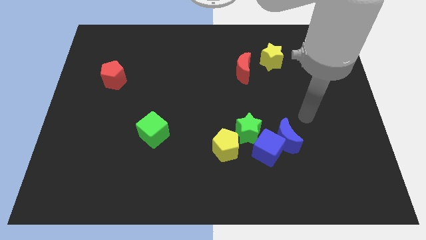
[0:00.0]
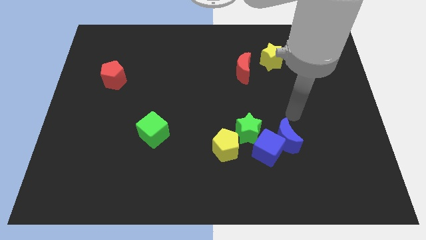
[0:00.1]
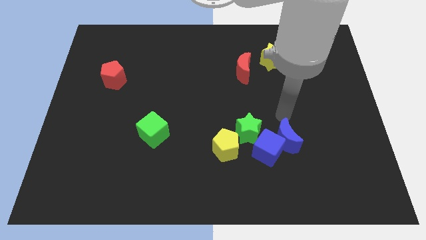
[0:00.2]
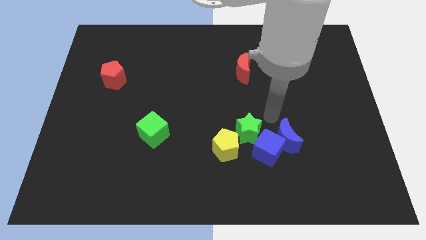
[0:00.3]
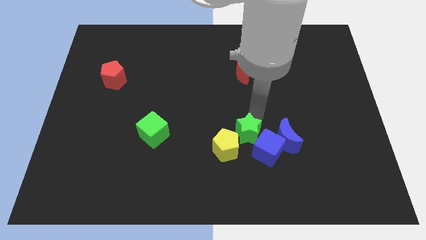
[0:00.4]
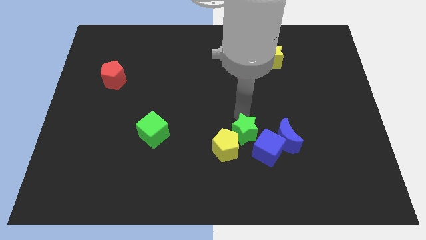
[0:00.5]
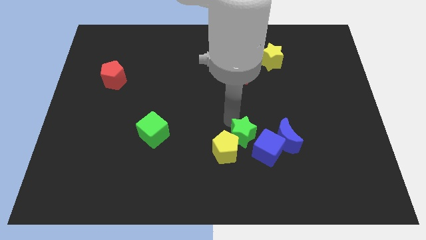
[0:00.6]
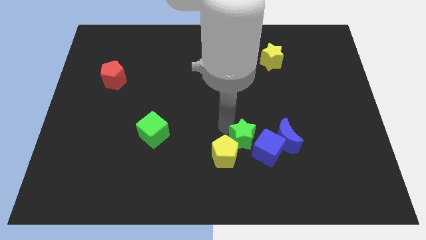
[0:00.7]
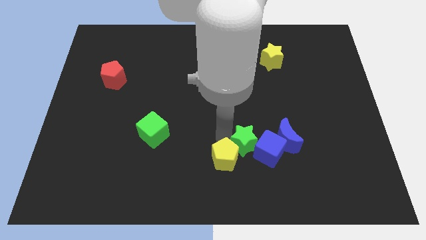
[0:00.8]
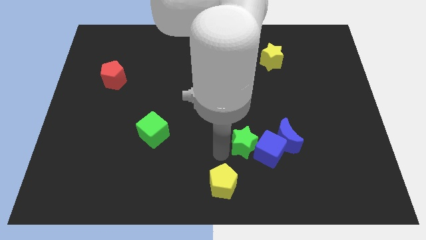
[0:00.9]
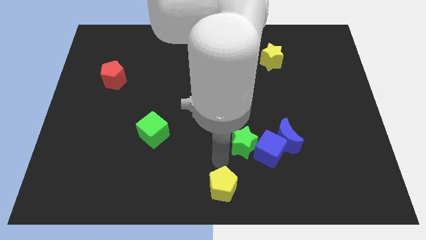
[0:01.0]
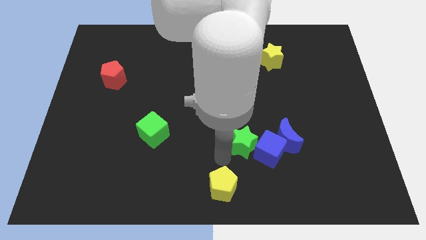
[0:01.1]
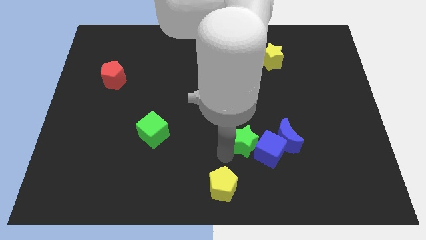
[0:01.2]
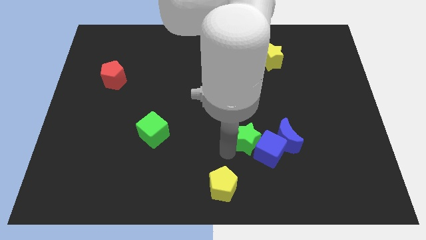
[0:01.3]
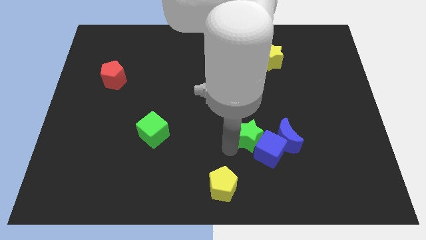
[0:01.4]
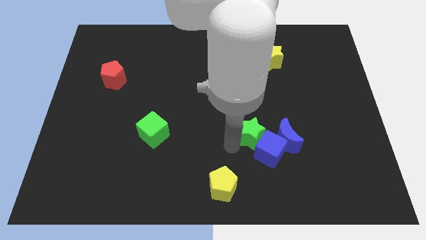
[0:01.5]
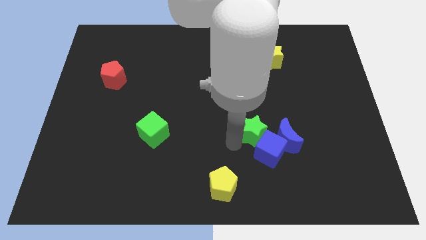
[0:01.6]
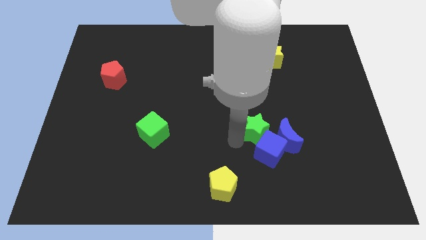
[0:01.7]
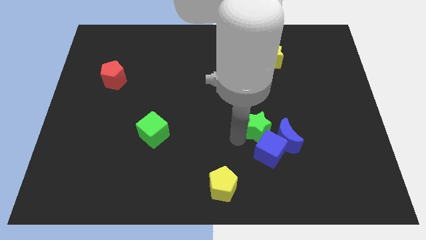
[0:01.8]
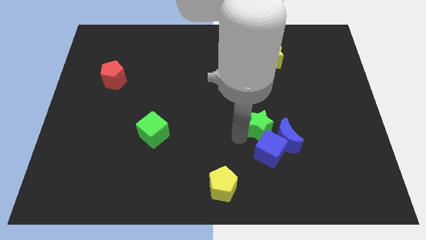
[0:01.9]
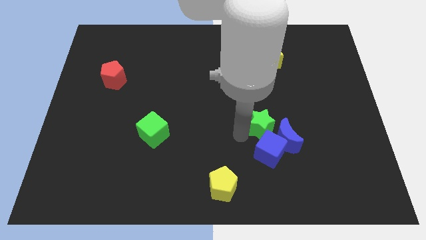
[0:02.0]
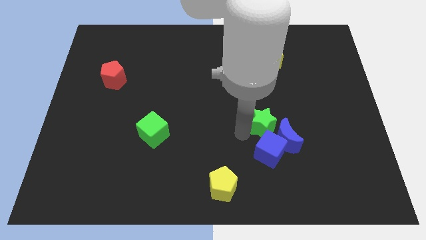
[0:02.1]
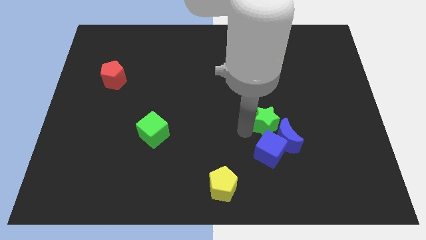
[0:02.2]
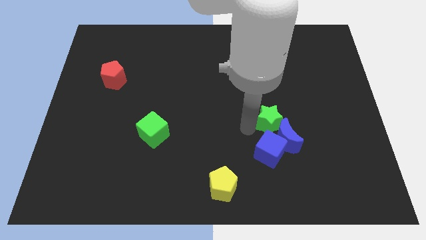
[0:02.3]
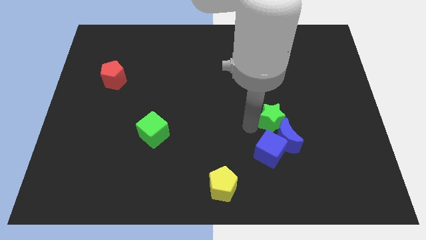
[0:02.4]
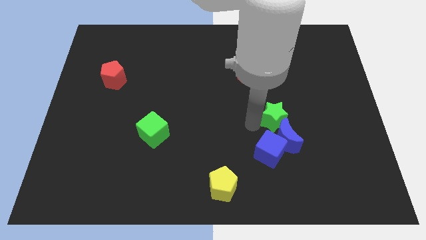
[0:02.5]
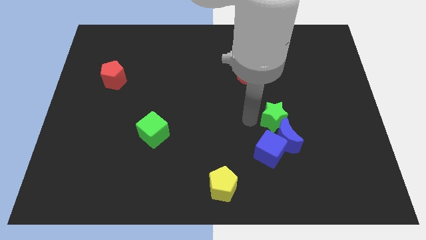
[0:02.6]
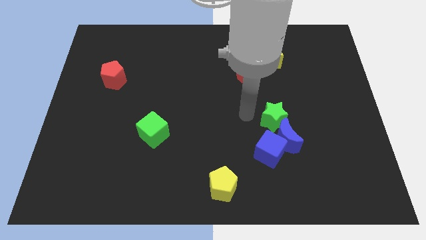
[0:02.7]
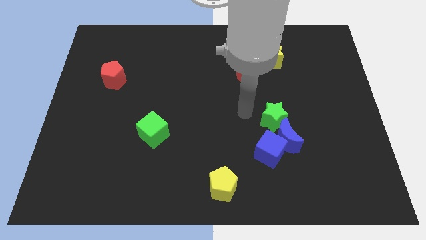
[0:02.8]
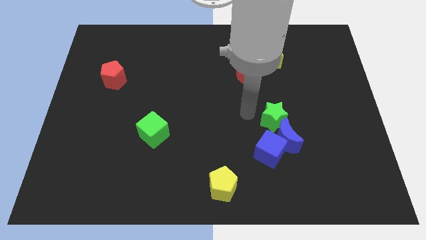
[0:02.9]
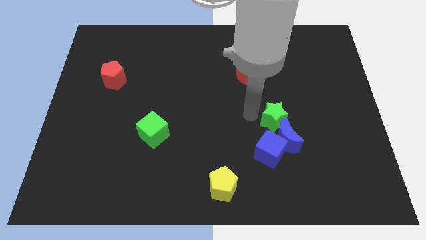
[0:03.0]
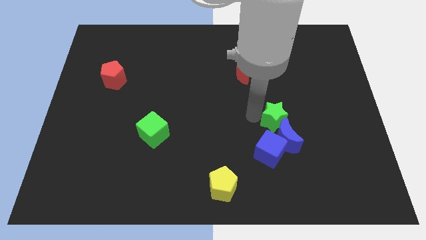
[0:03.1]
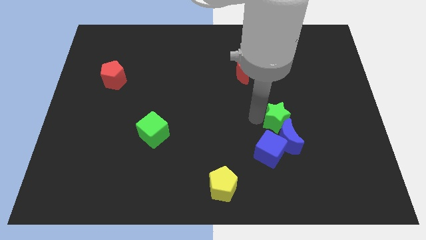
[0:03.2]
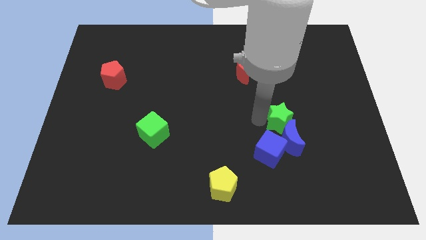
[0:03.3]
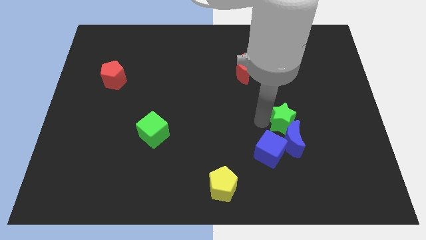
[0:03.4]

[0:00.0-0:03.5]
slightly slide the green star right

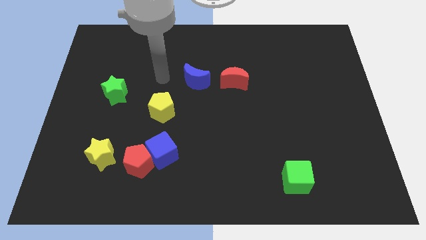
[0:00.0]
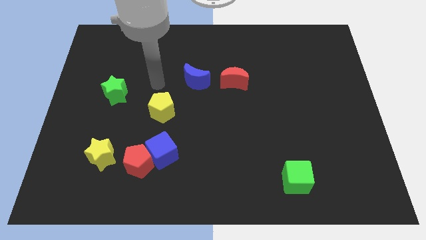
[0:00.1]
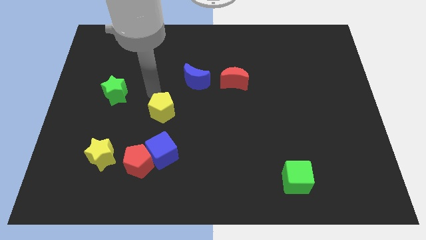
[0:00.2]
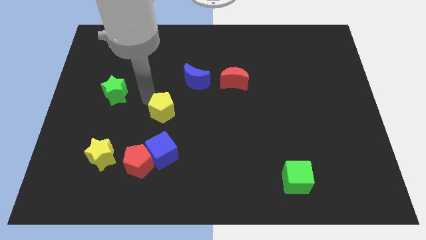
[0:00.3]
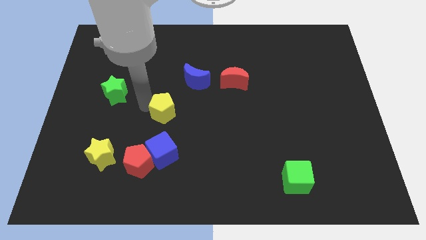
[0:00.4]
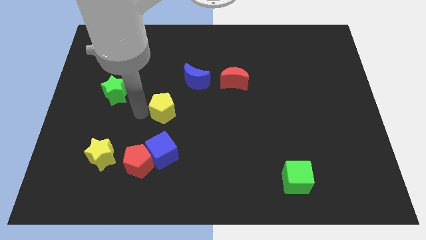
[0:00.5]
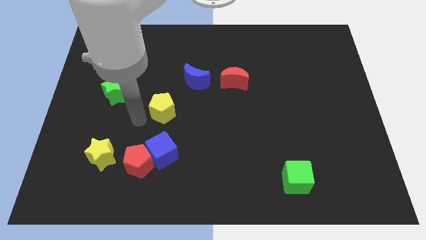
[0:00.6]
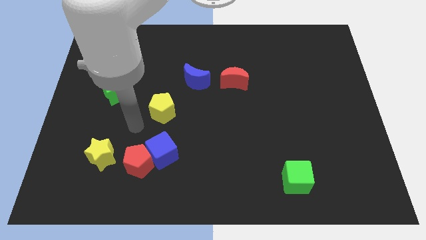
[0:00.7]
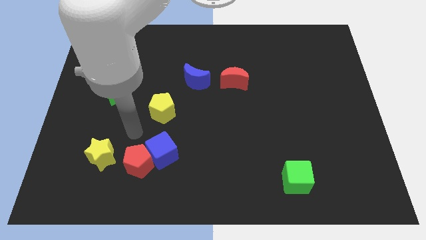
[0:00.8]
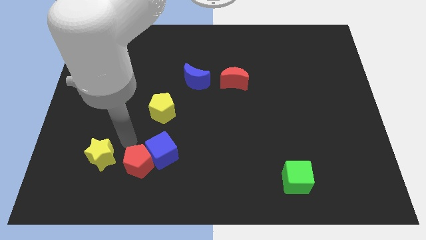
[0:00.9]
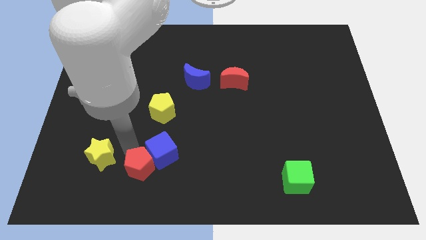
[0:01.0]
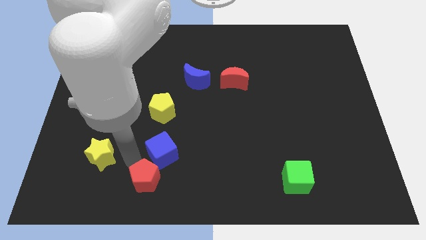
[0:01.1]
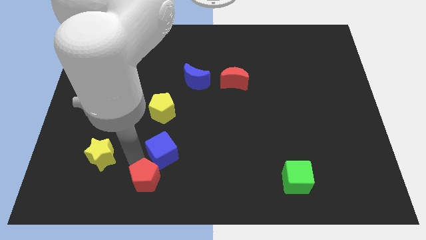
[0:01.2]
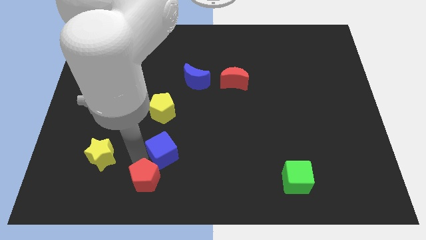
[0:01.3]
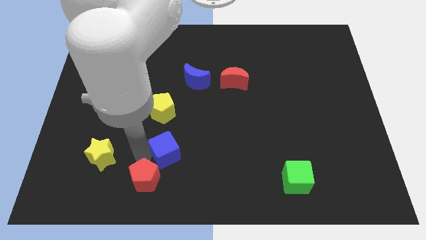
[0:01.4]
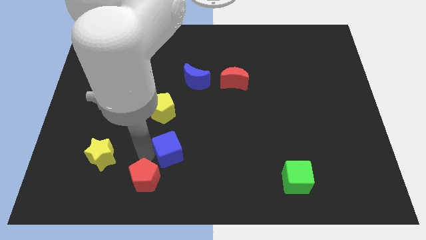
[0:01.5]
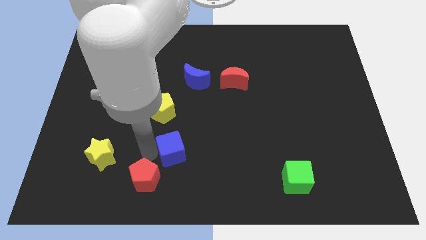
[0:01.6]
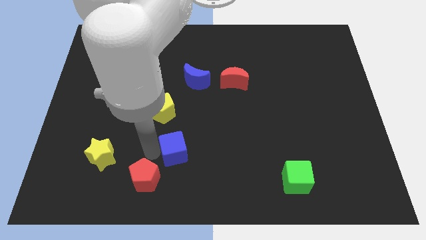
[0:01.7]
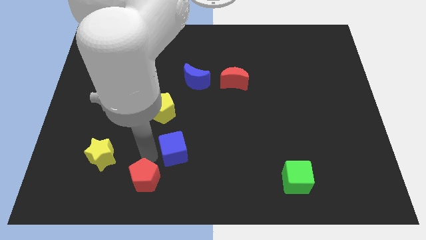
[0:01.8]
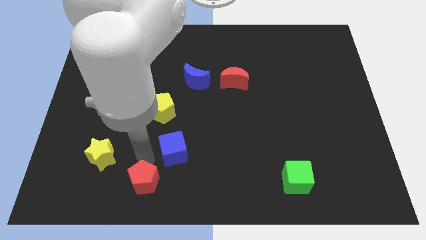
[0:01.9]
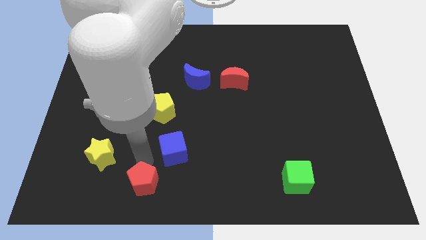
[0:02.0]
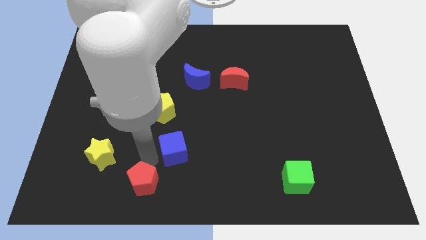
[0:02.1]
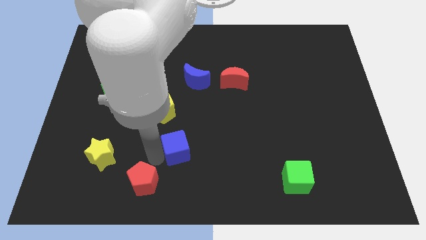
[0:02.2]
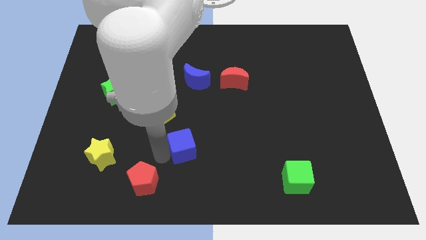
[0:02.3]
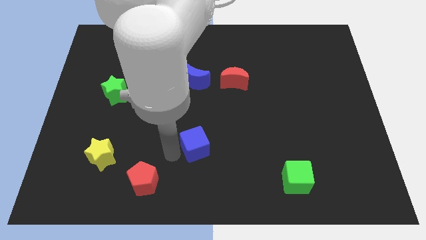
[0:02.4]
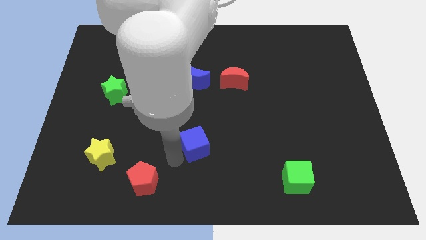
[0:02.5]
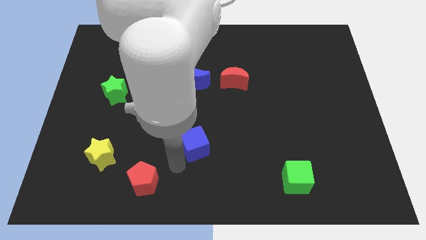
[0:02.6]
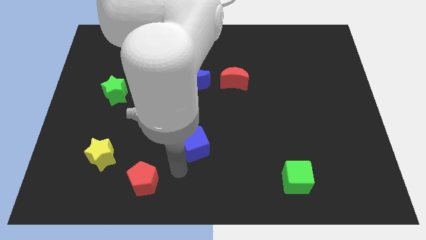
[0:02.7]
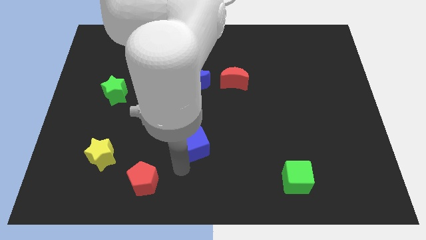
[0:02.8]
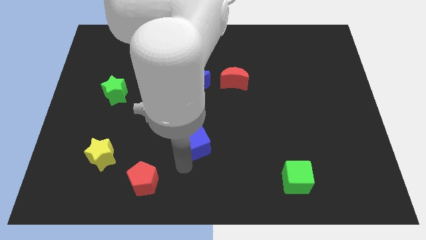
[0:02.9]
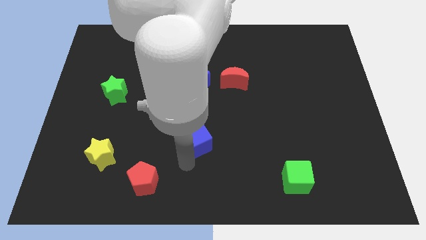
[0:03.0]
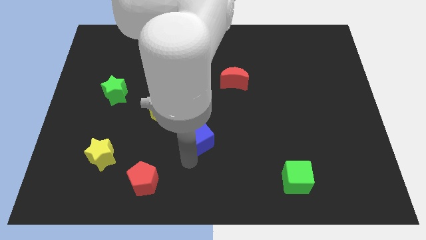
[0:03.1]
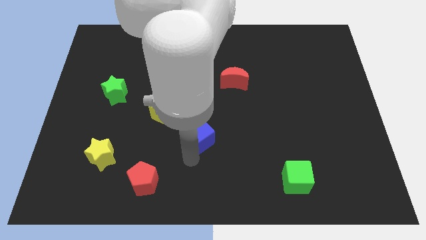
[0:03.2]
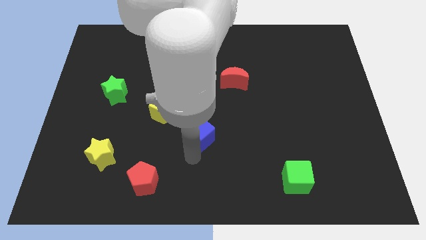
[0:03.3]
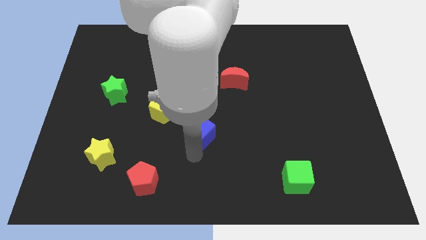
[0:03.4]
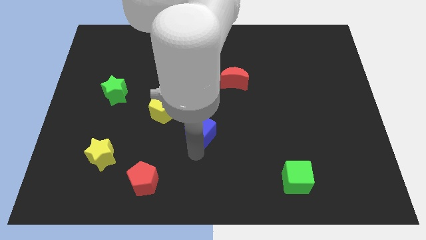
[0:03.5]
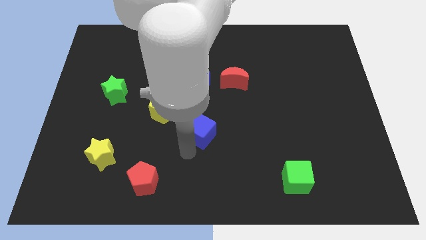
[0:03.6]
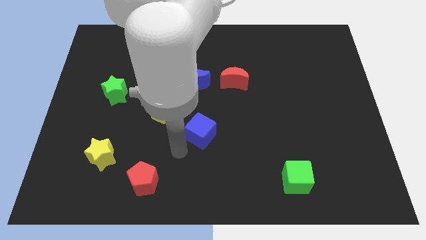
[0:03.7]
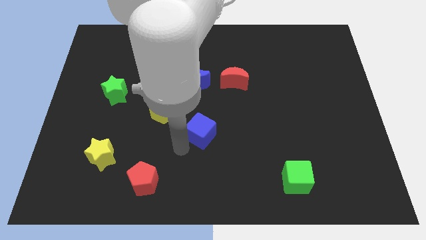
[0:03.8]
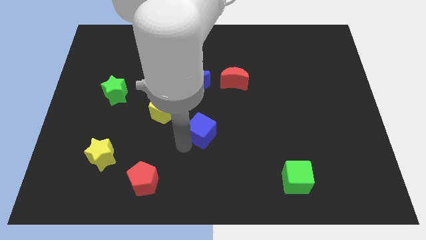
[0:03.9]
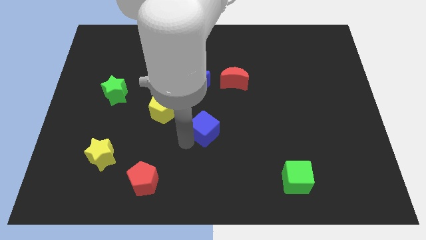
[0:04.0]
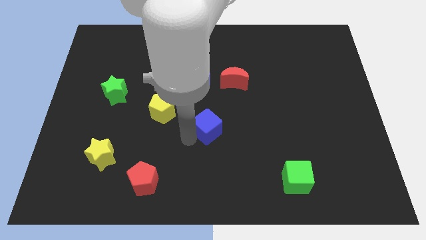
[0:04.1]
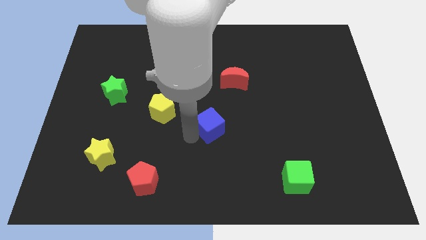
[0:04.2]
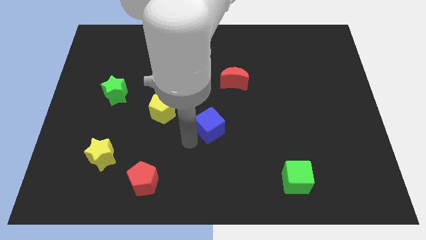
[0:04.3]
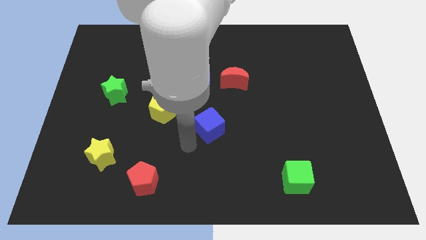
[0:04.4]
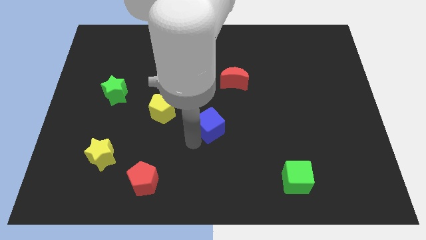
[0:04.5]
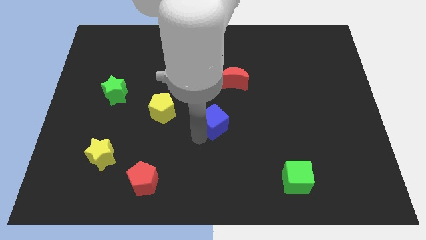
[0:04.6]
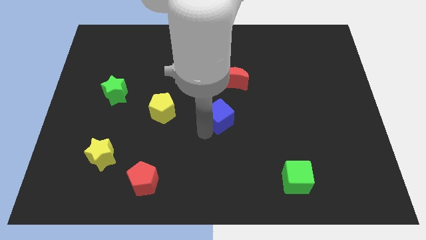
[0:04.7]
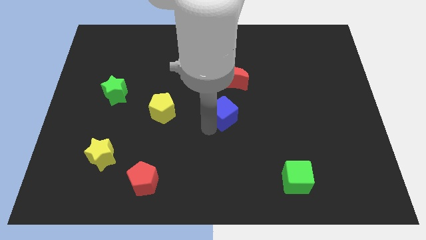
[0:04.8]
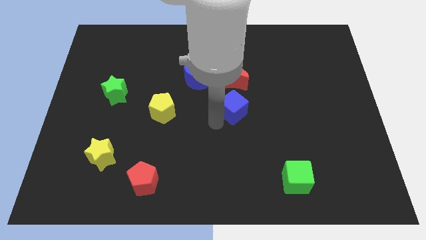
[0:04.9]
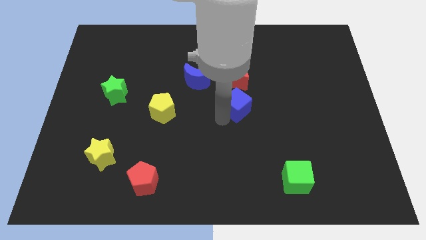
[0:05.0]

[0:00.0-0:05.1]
move the blue cube upwards and to the right
